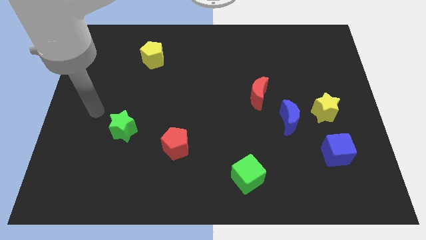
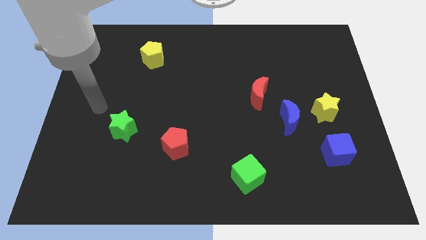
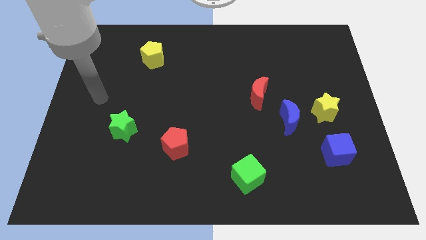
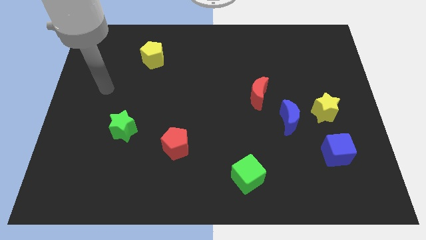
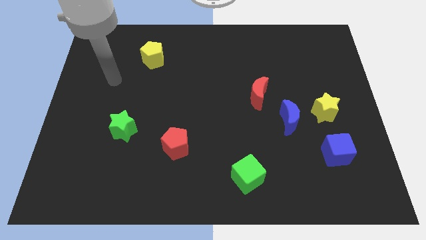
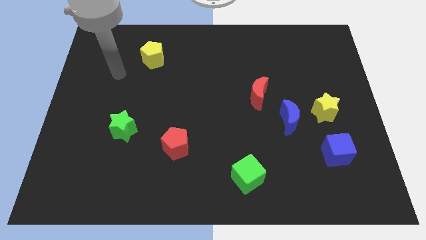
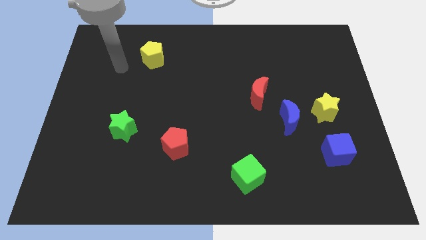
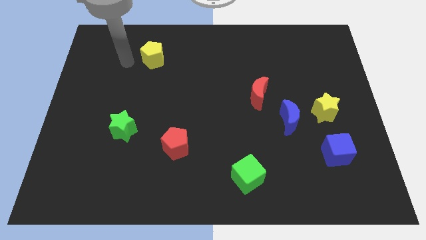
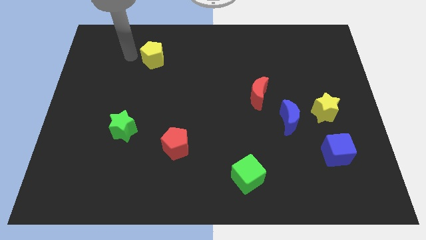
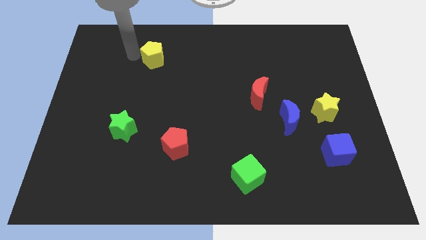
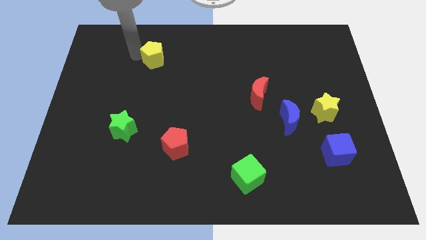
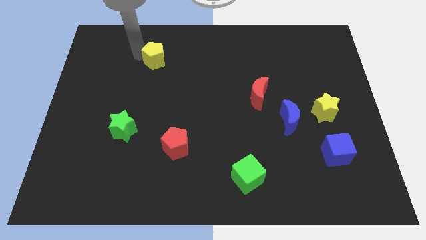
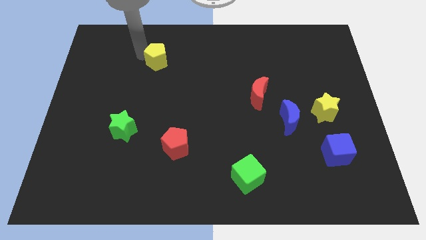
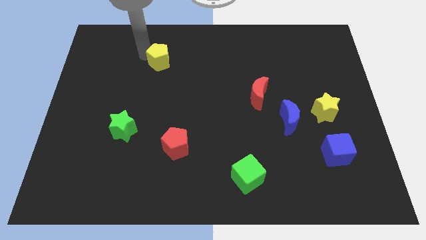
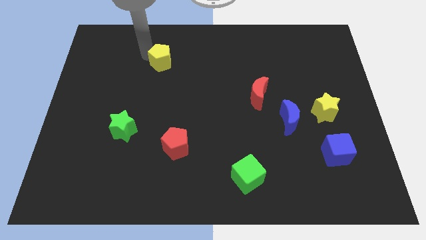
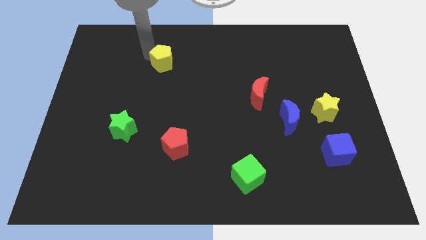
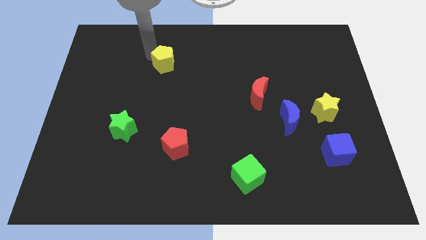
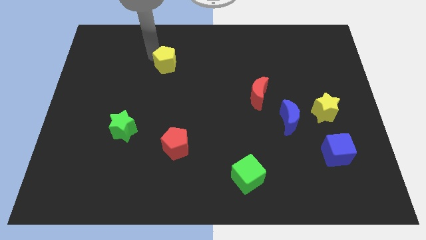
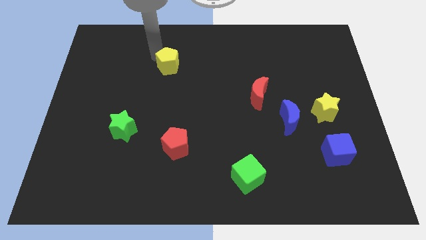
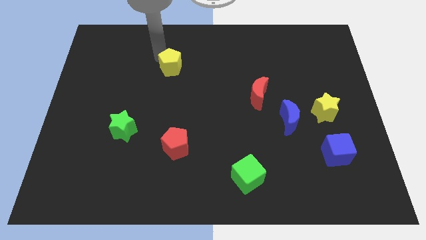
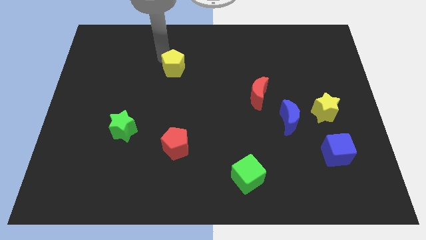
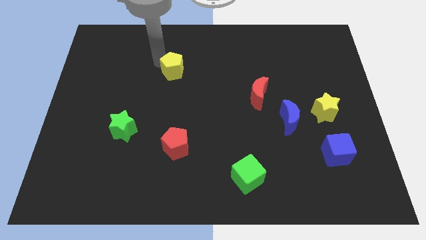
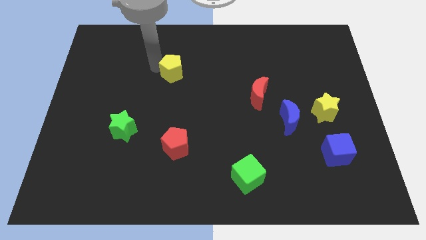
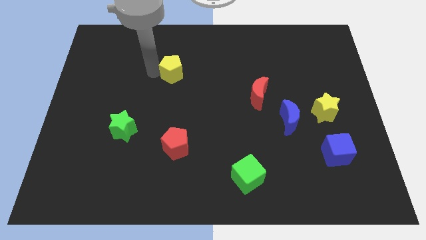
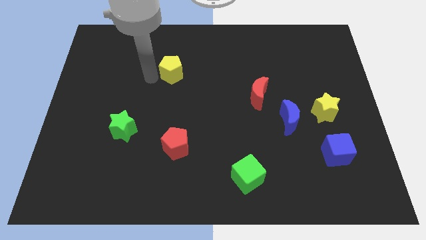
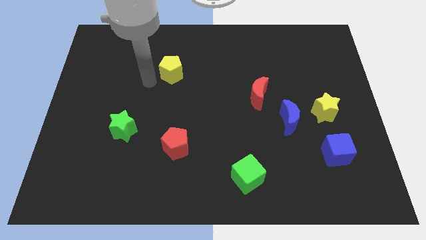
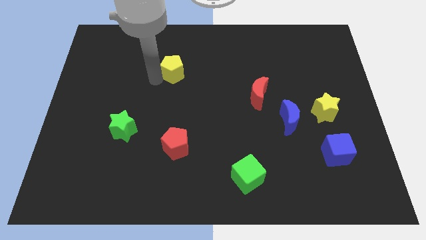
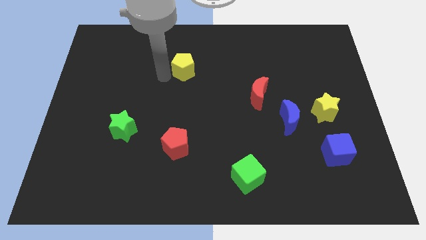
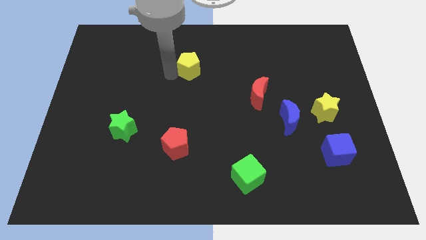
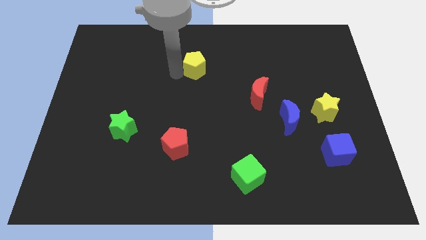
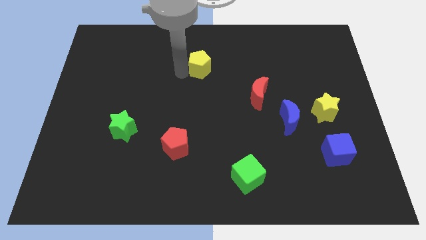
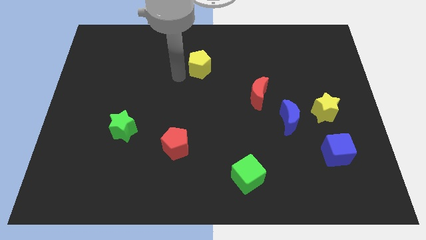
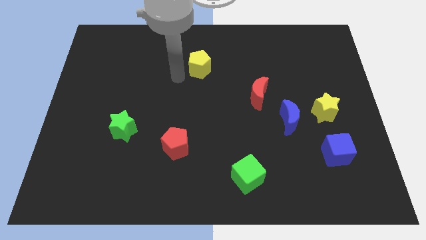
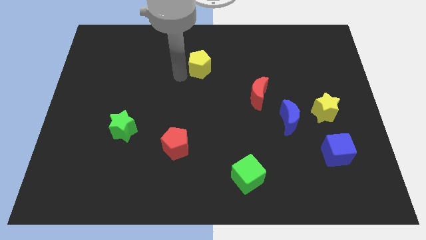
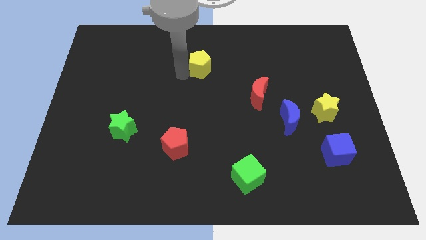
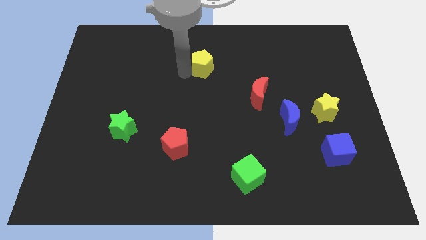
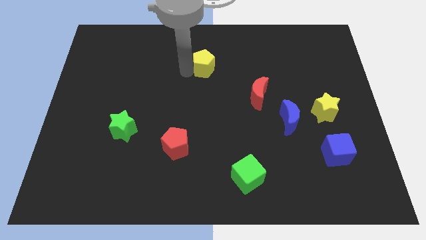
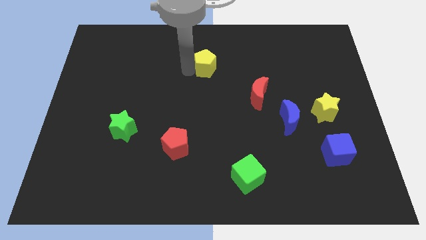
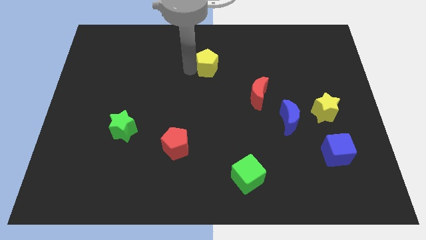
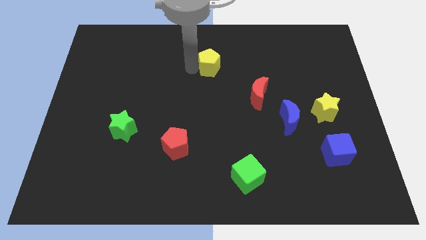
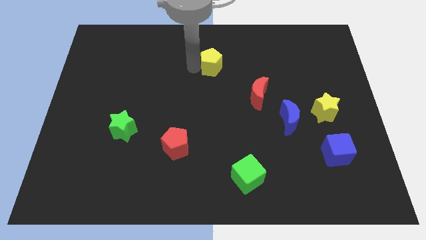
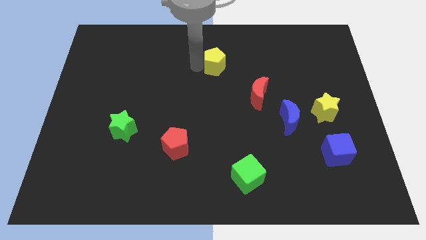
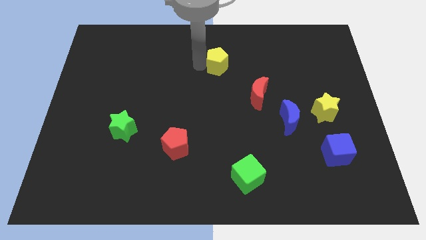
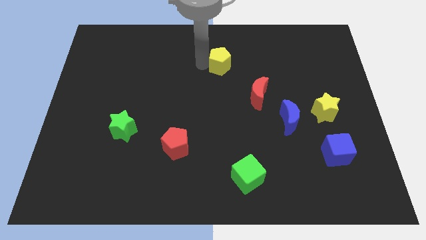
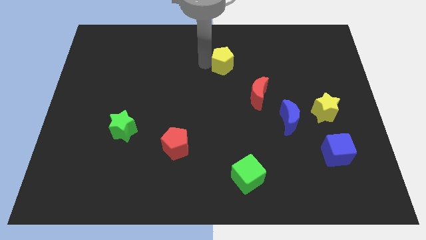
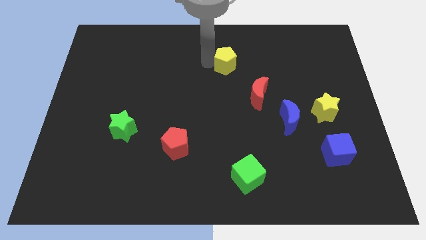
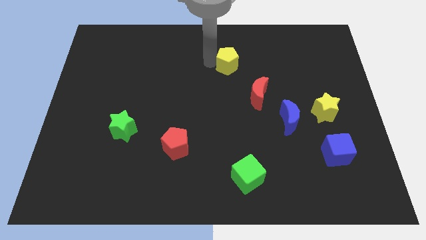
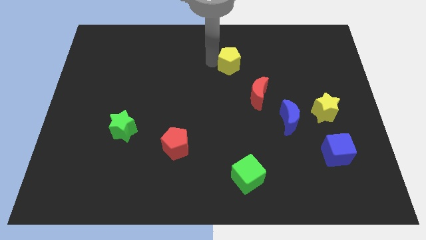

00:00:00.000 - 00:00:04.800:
push the yellow pentagon right

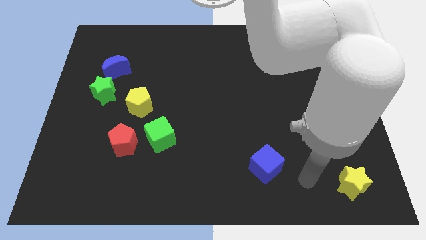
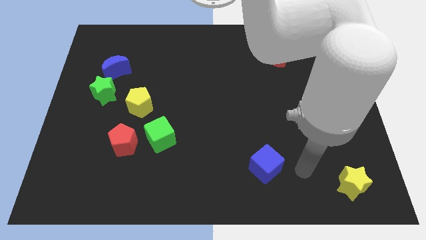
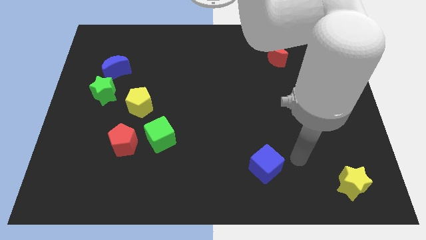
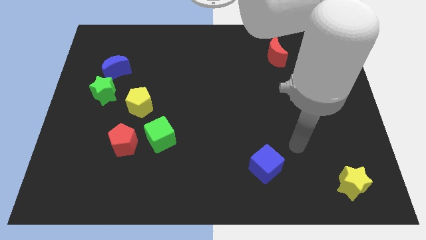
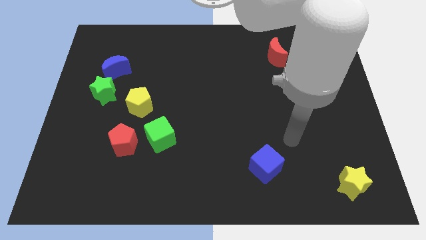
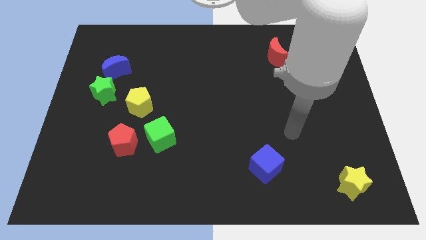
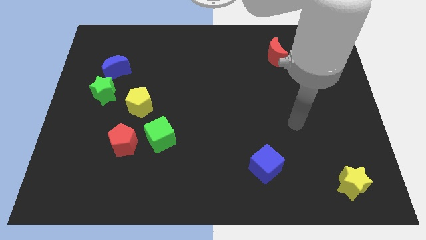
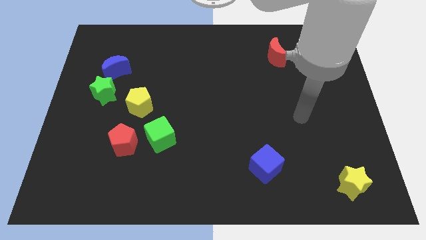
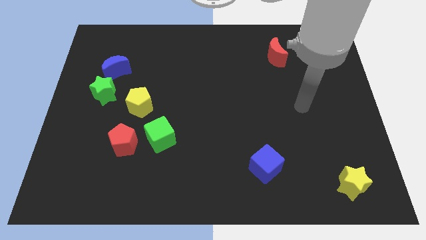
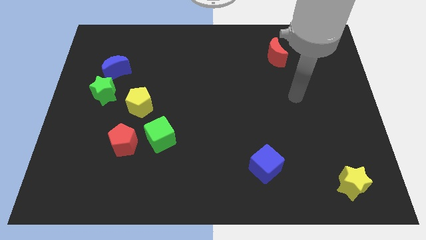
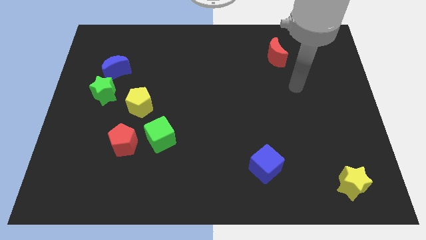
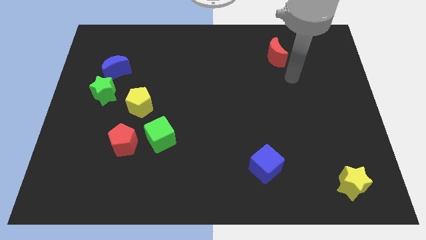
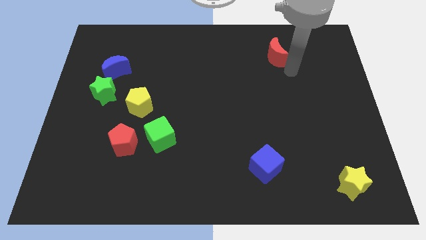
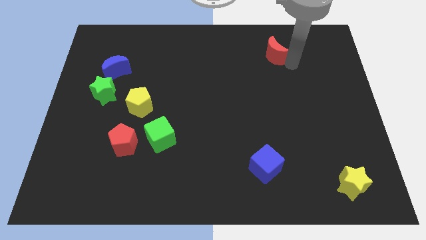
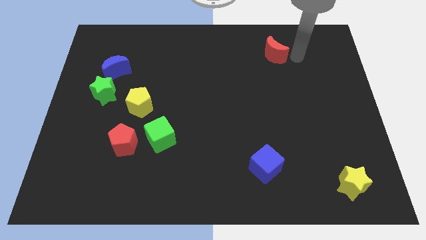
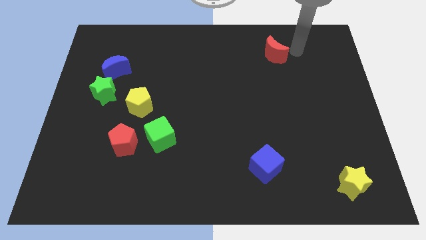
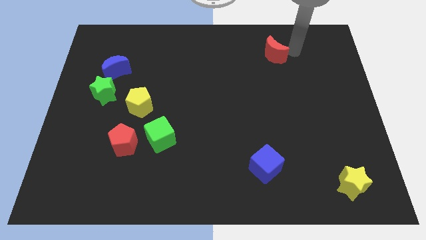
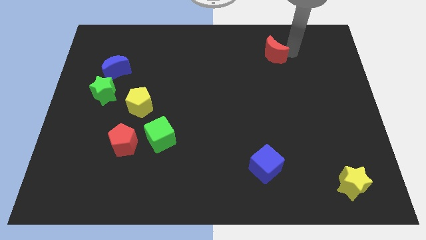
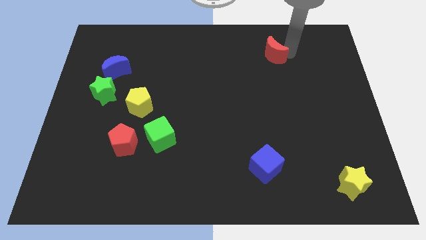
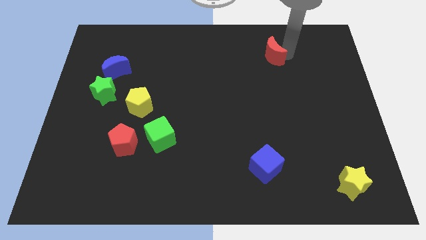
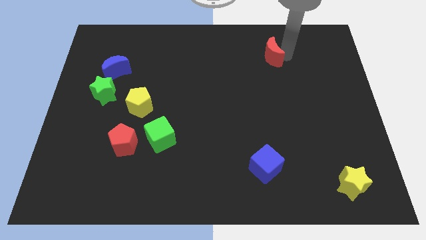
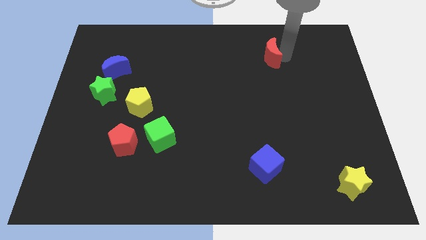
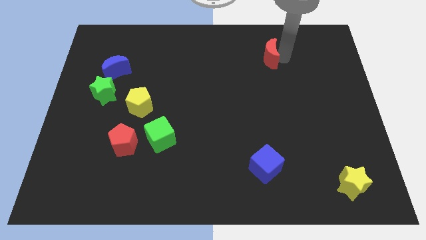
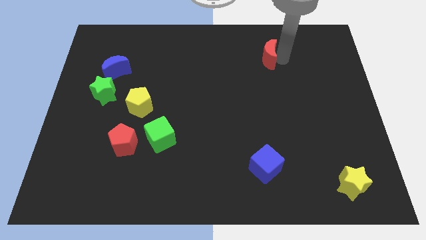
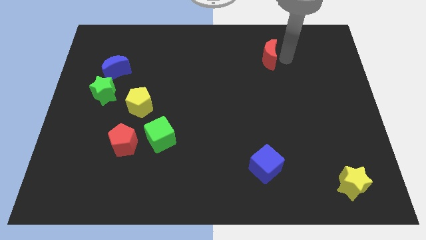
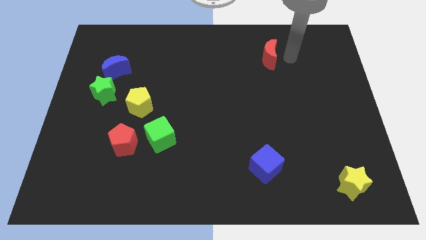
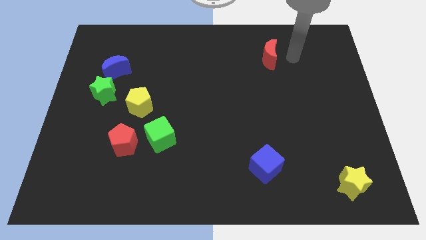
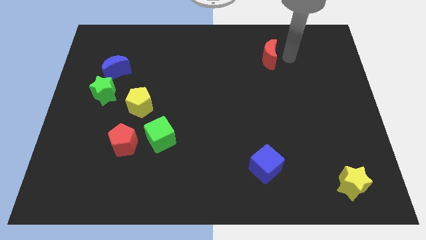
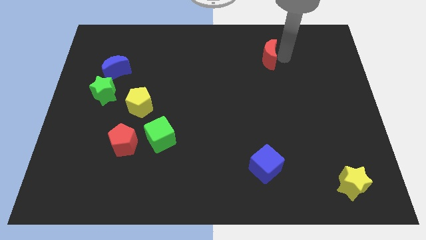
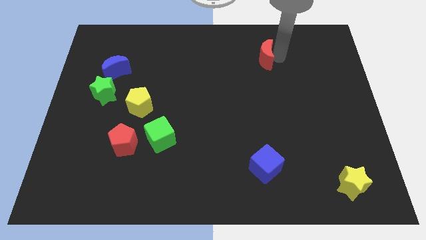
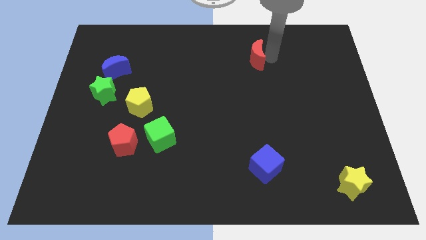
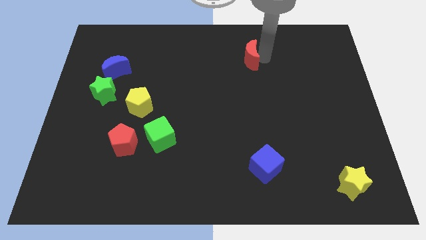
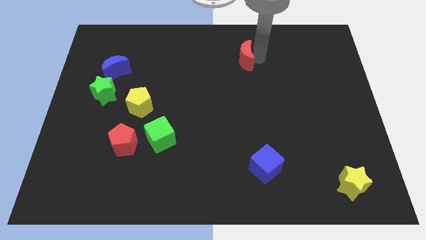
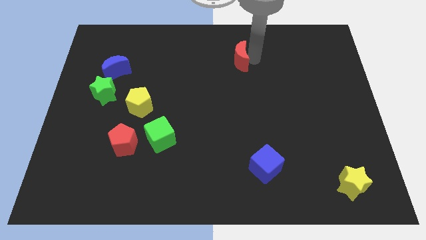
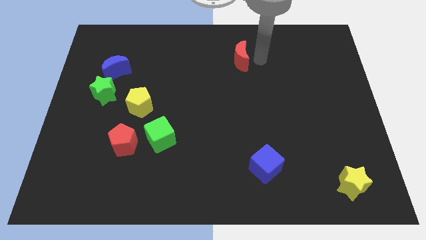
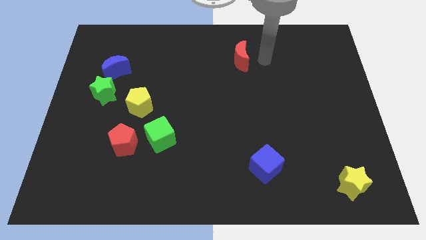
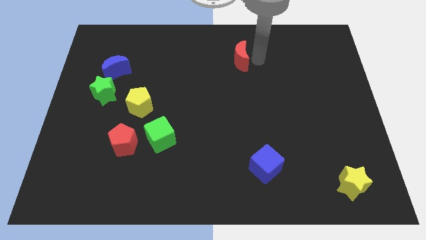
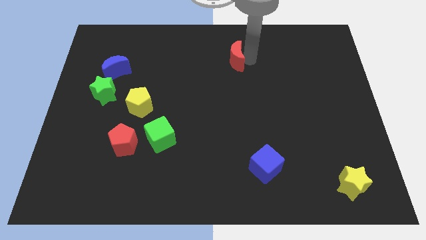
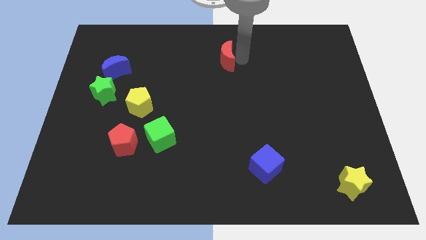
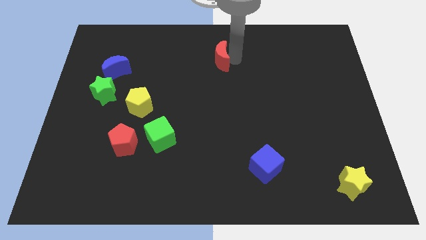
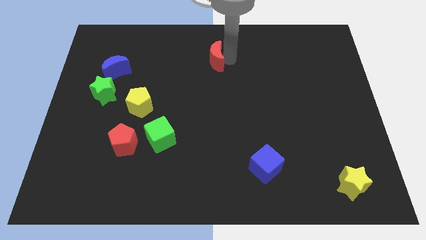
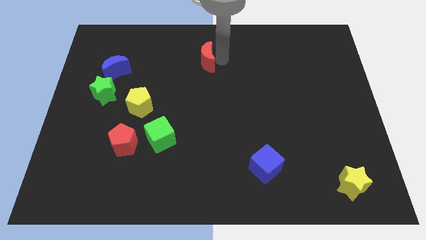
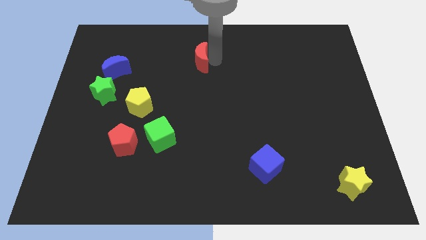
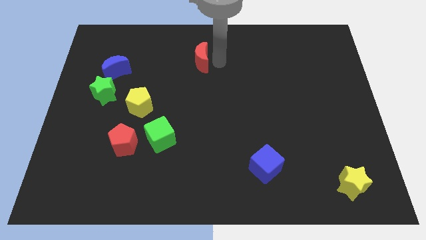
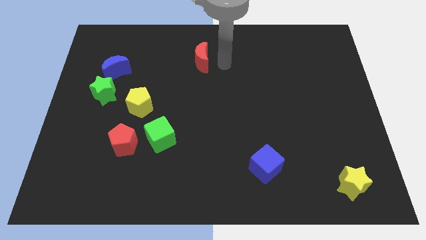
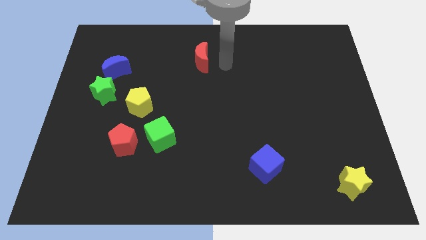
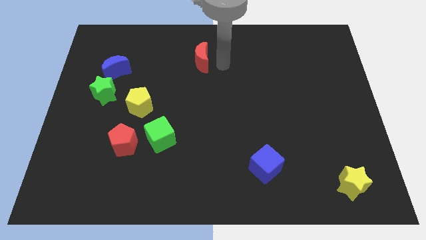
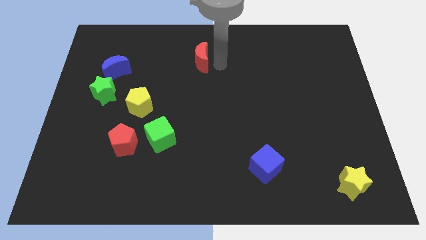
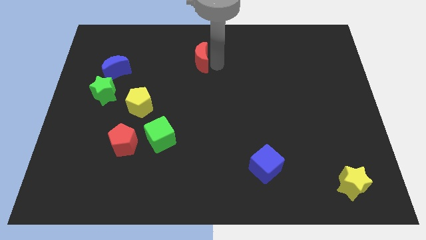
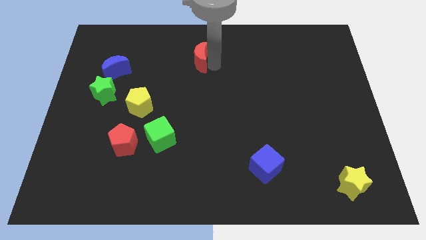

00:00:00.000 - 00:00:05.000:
slide the red moon to the left
